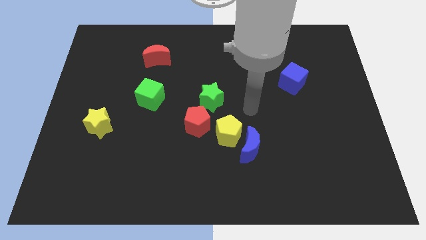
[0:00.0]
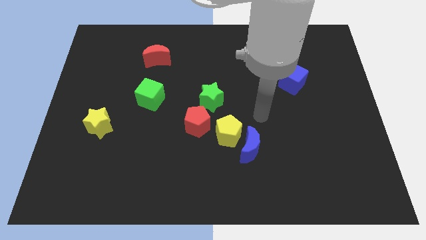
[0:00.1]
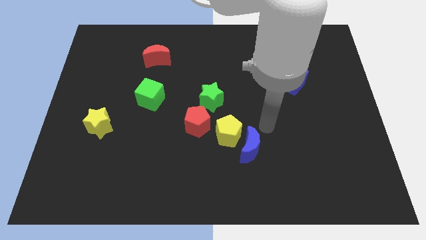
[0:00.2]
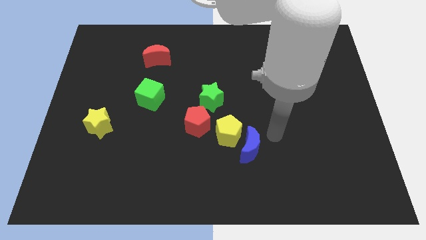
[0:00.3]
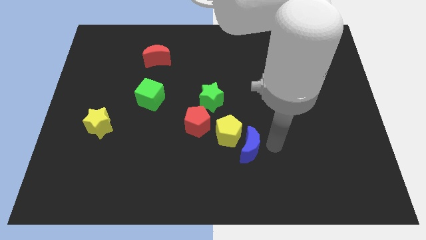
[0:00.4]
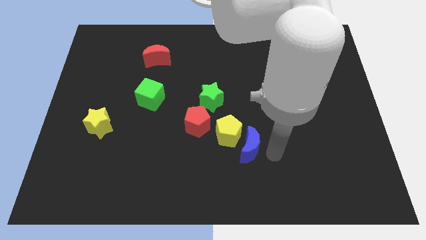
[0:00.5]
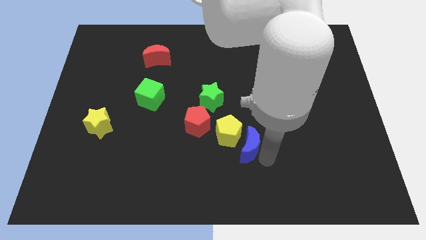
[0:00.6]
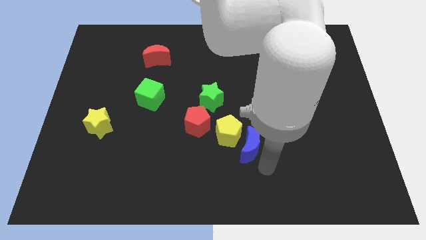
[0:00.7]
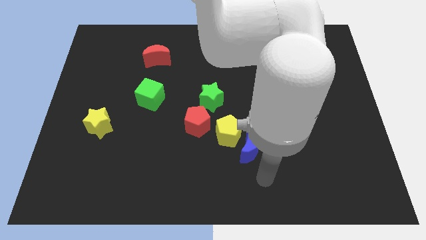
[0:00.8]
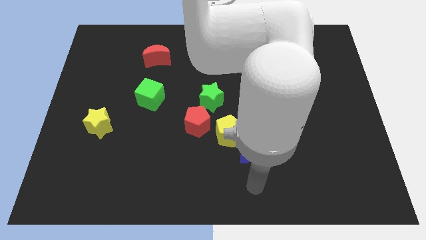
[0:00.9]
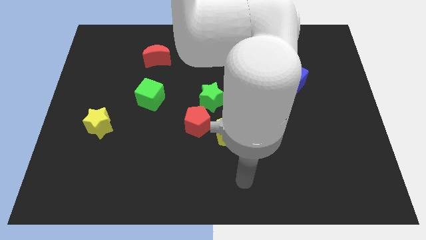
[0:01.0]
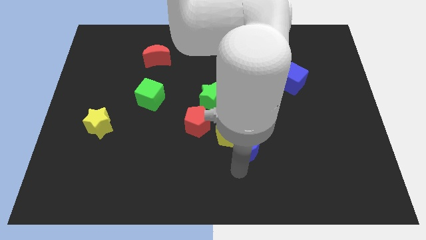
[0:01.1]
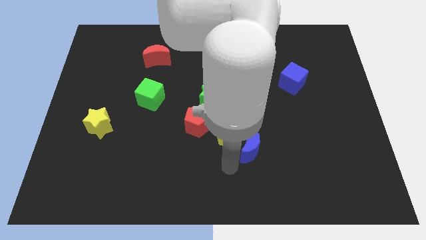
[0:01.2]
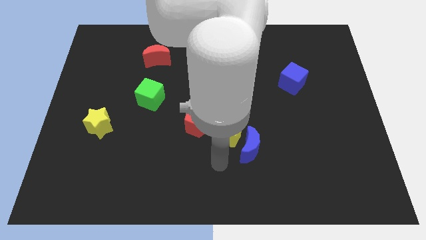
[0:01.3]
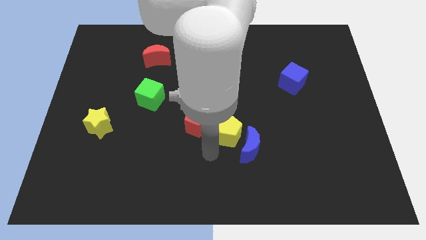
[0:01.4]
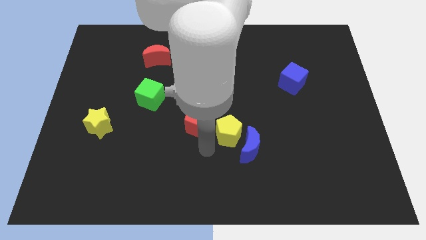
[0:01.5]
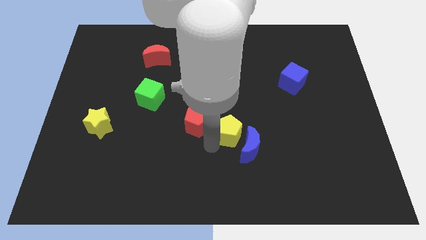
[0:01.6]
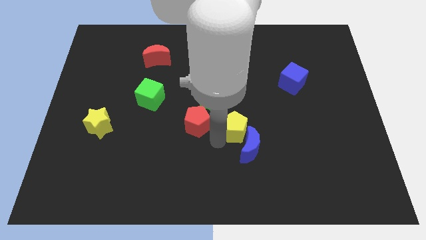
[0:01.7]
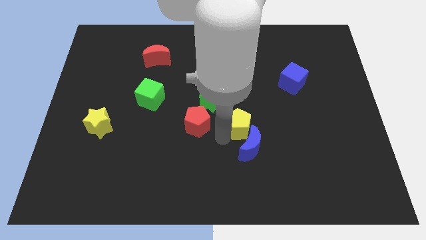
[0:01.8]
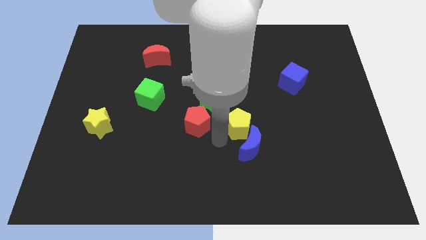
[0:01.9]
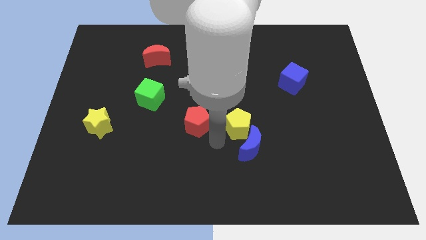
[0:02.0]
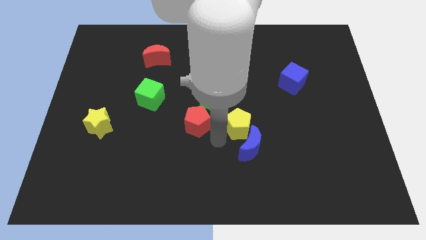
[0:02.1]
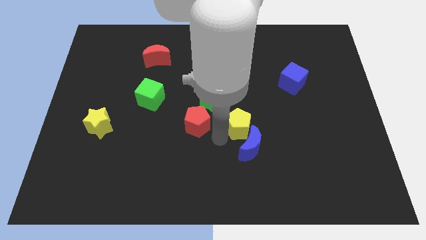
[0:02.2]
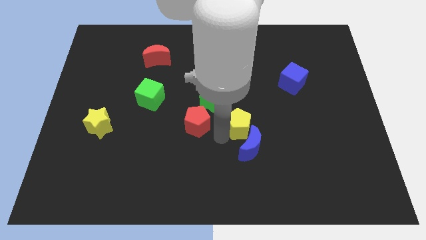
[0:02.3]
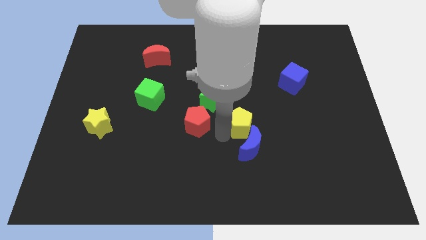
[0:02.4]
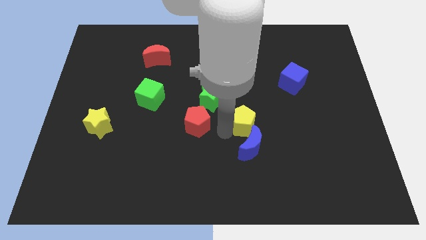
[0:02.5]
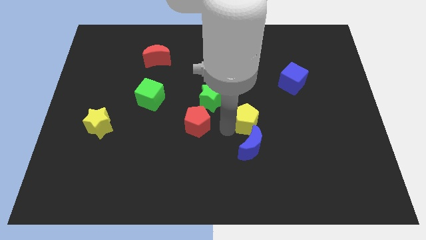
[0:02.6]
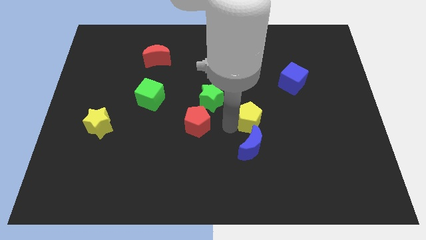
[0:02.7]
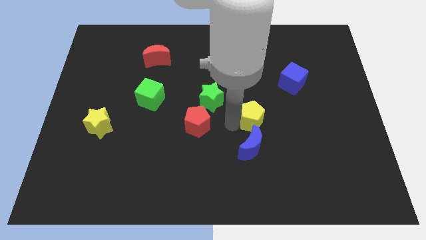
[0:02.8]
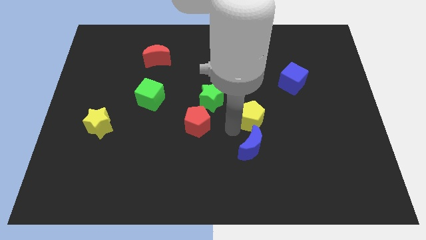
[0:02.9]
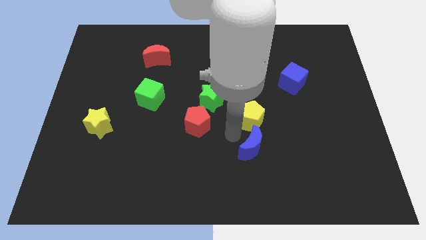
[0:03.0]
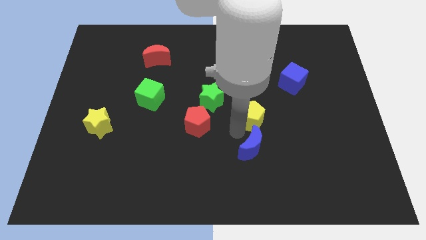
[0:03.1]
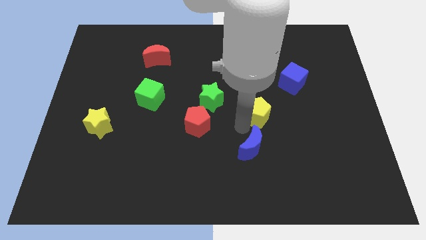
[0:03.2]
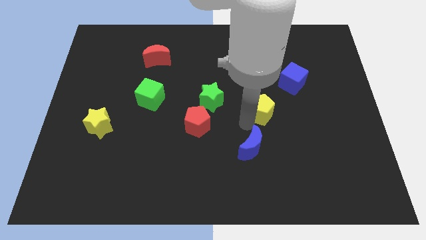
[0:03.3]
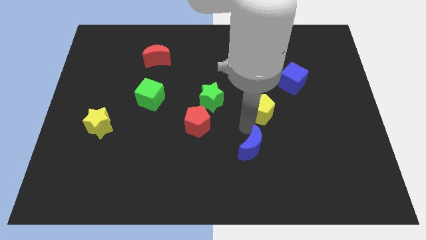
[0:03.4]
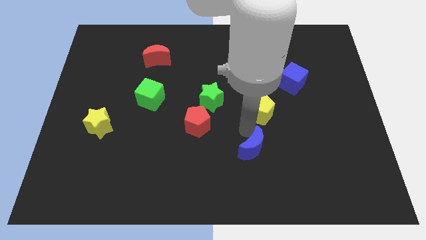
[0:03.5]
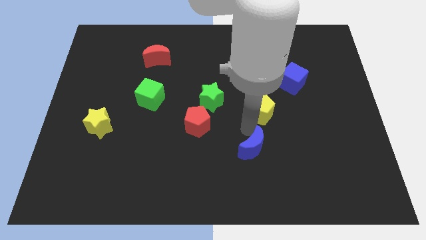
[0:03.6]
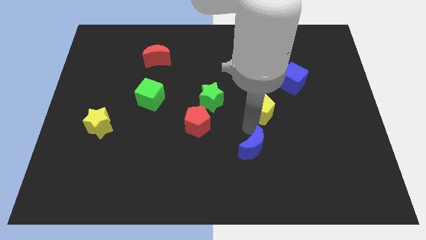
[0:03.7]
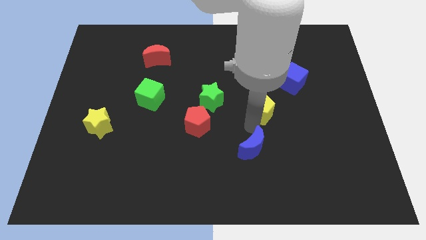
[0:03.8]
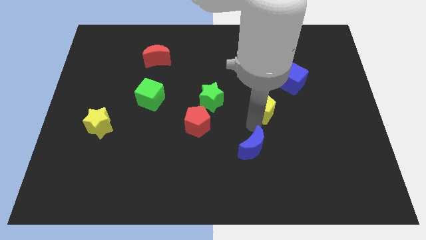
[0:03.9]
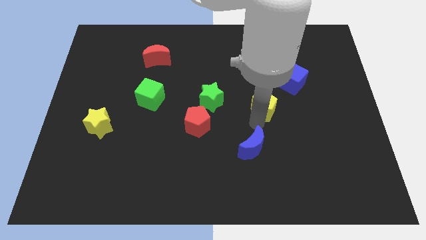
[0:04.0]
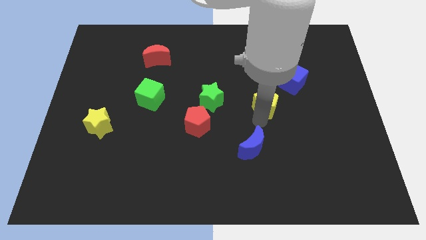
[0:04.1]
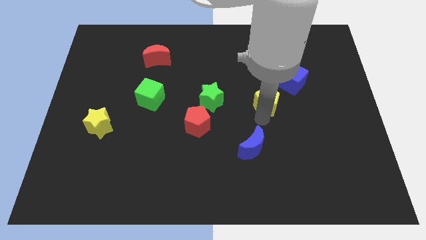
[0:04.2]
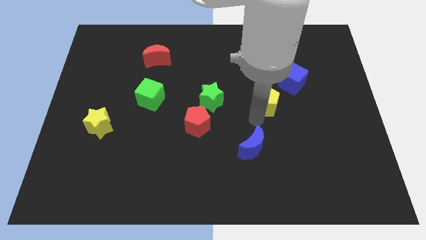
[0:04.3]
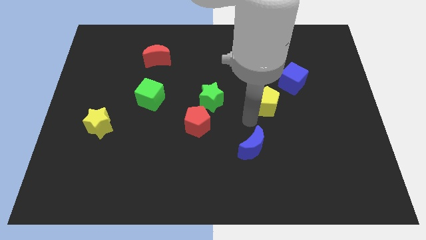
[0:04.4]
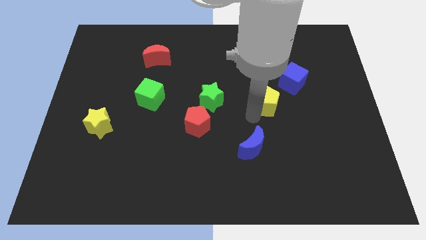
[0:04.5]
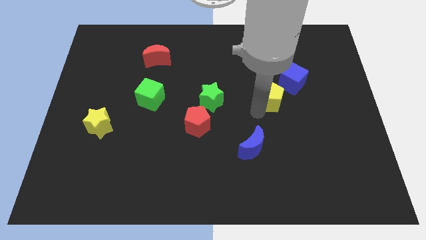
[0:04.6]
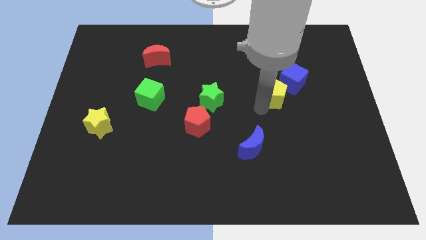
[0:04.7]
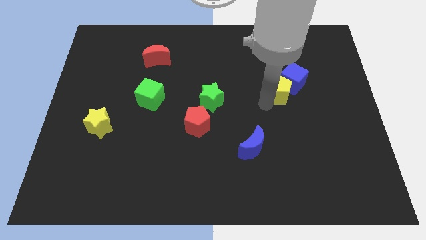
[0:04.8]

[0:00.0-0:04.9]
move the yellow pentagon towards the blue cube

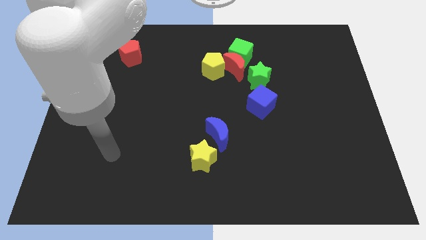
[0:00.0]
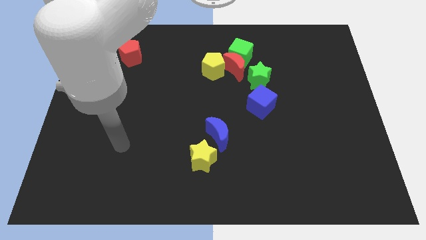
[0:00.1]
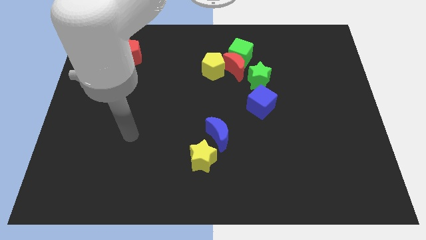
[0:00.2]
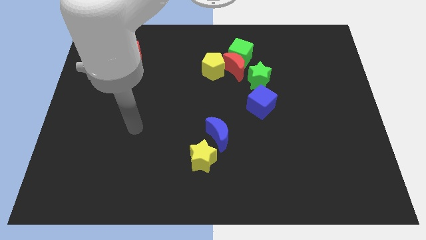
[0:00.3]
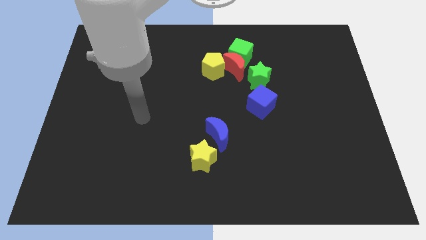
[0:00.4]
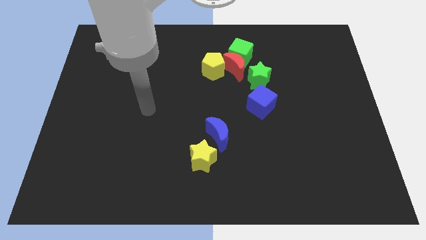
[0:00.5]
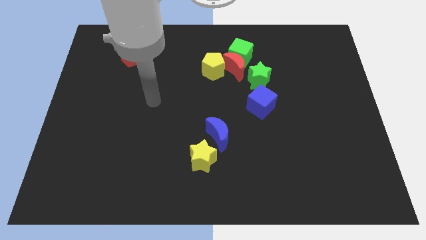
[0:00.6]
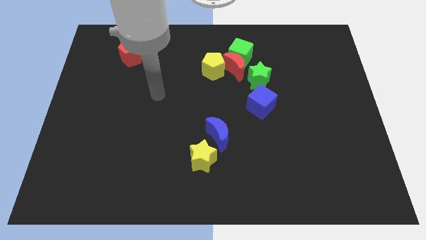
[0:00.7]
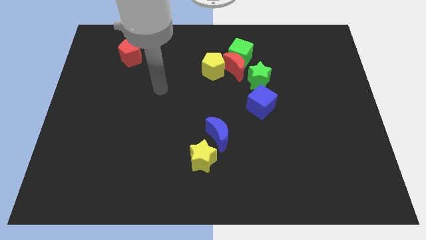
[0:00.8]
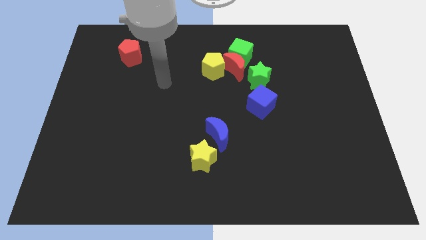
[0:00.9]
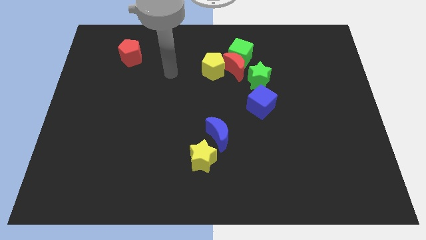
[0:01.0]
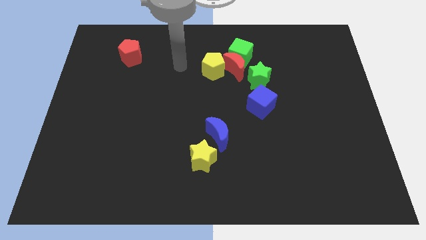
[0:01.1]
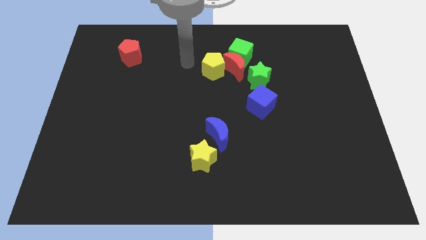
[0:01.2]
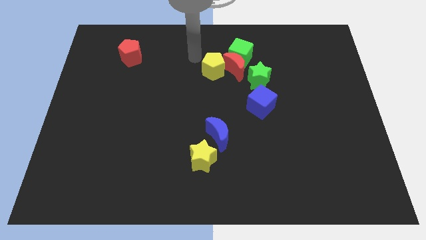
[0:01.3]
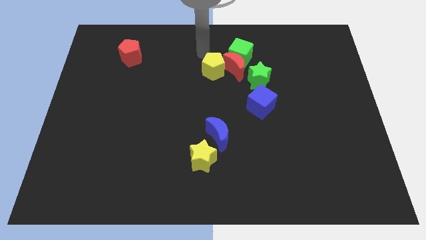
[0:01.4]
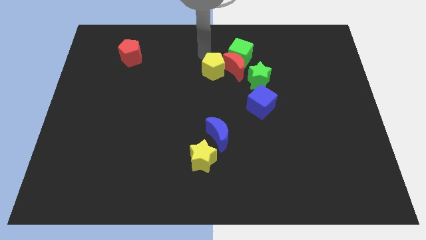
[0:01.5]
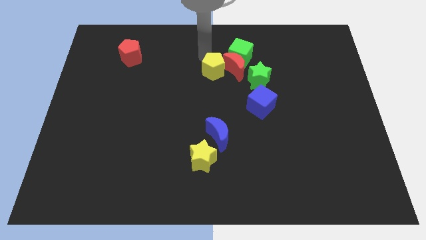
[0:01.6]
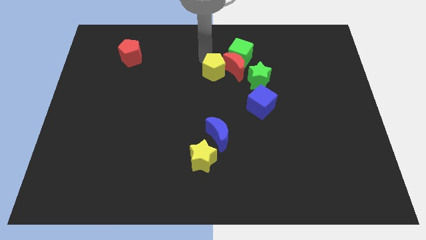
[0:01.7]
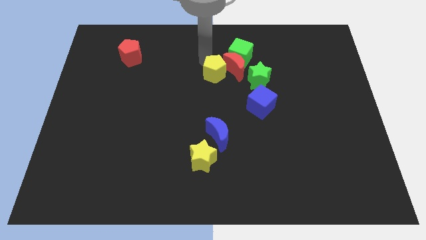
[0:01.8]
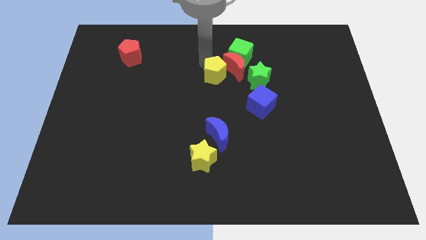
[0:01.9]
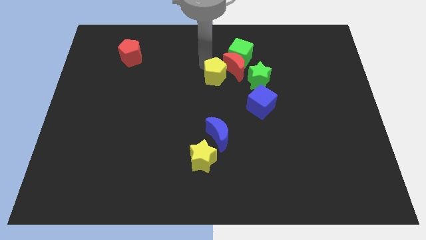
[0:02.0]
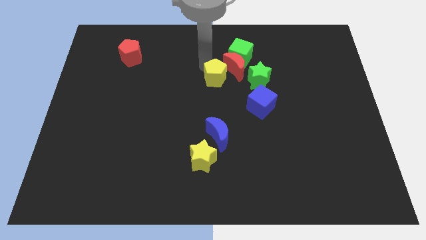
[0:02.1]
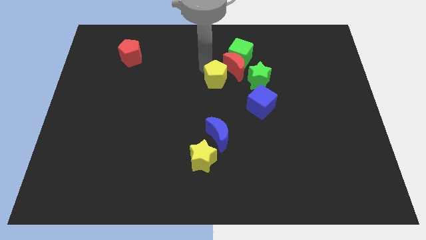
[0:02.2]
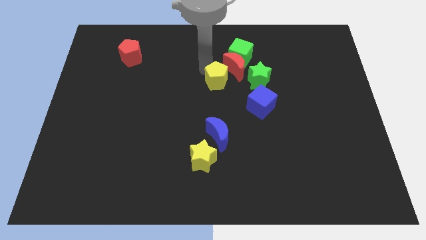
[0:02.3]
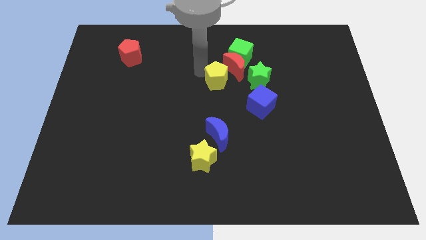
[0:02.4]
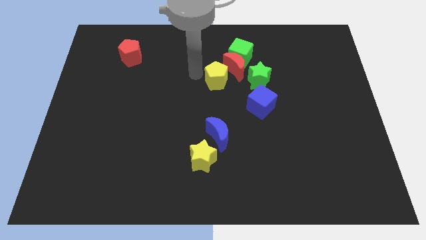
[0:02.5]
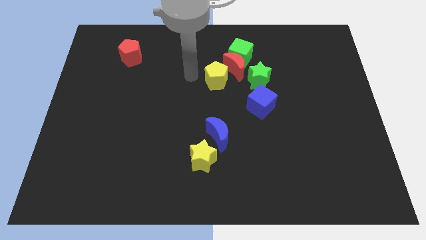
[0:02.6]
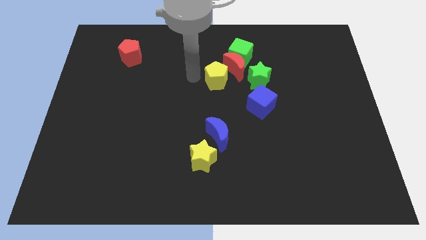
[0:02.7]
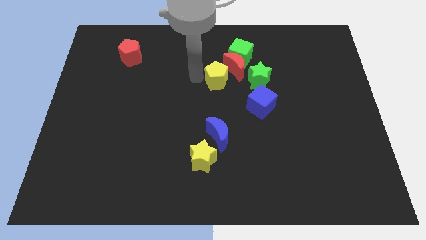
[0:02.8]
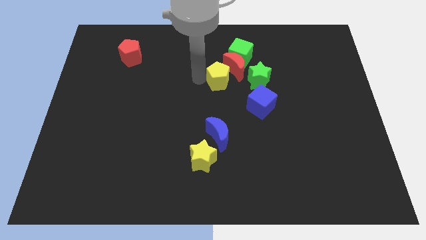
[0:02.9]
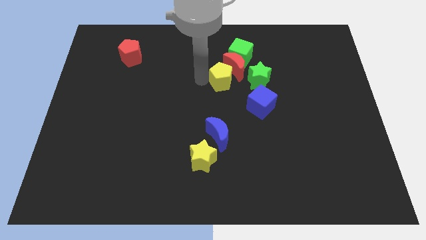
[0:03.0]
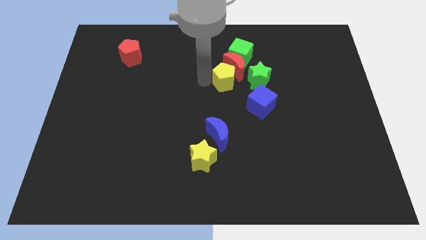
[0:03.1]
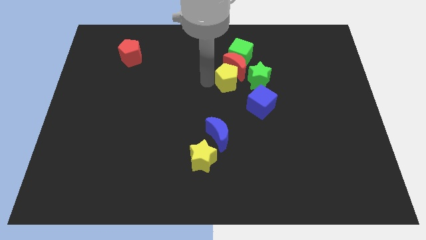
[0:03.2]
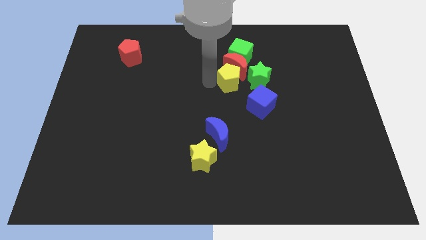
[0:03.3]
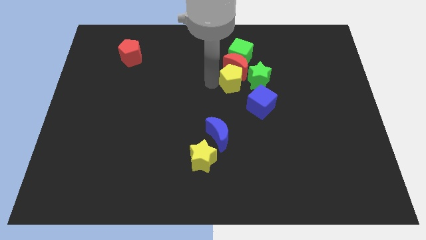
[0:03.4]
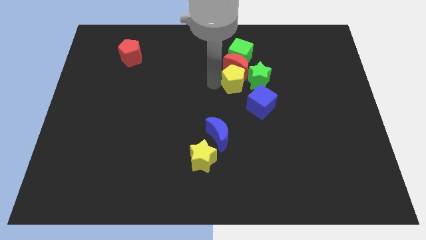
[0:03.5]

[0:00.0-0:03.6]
push the yellow pentagon towards the green star
